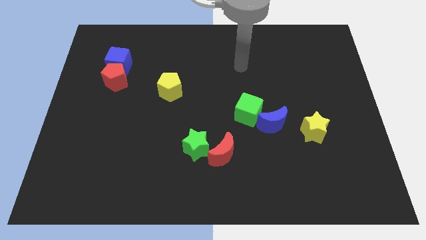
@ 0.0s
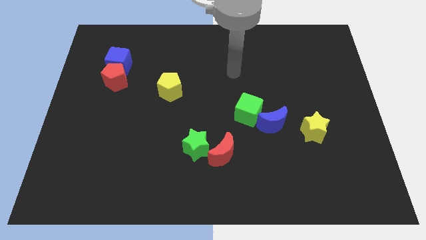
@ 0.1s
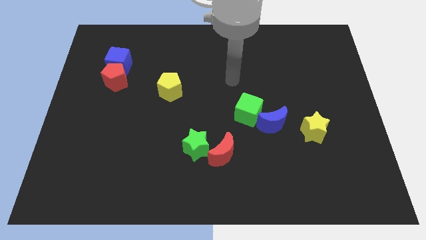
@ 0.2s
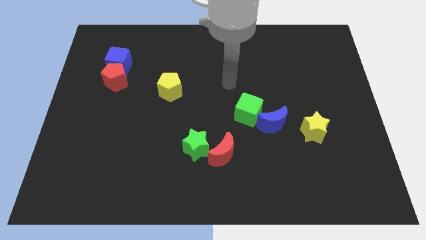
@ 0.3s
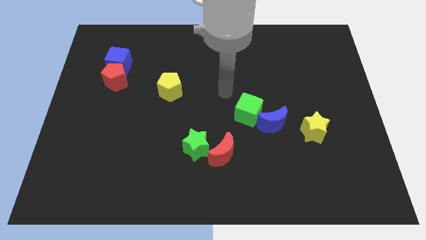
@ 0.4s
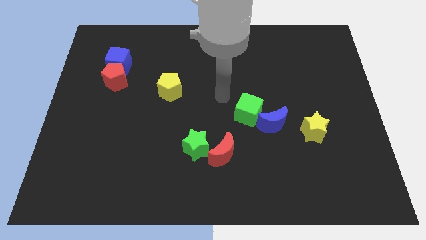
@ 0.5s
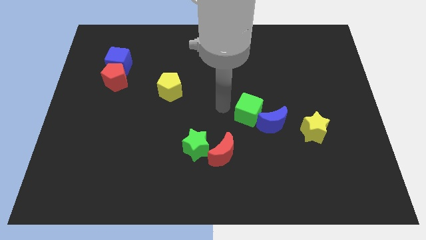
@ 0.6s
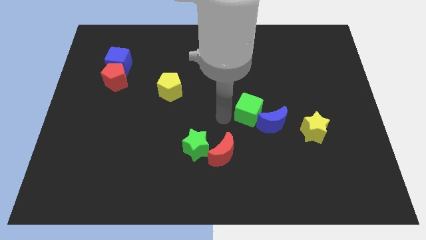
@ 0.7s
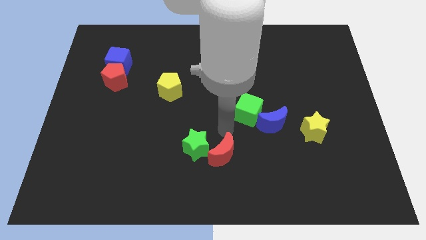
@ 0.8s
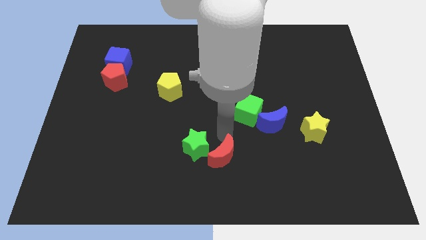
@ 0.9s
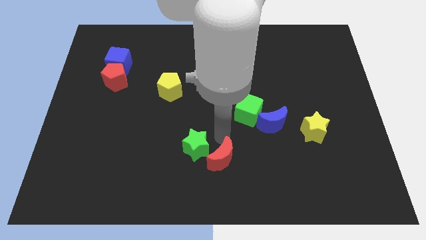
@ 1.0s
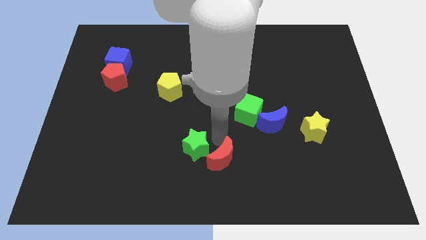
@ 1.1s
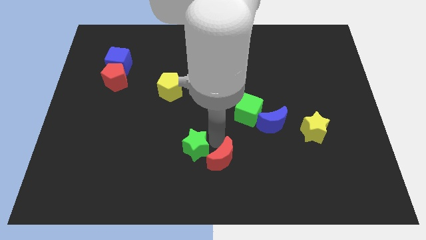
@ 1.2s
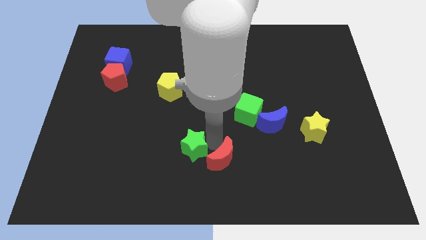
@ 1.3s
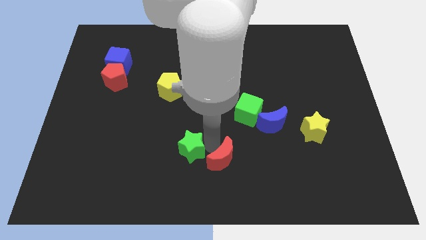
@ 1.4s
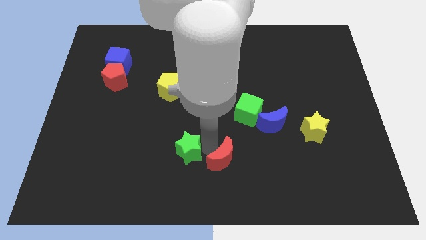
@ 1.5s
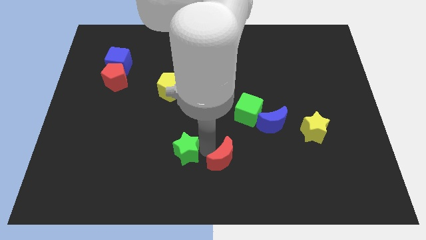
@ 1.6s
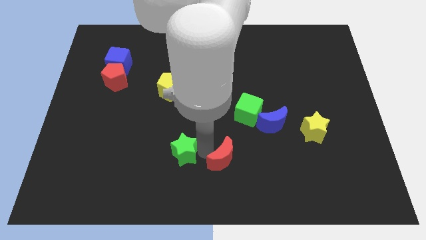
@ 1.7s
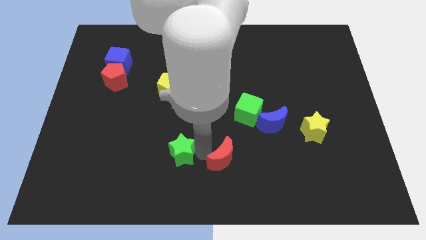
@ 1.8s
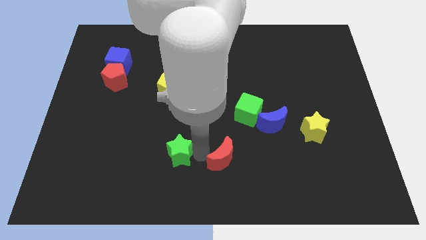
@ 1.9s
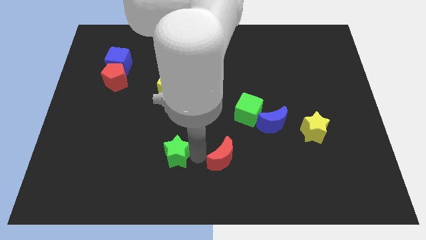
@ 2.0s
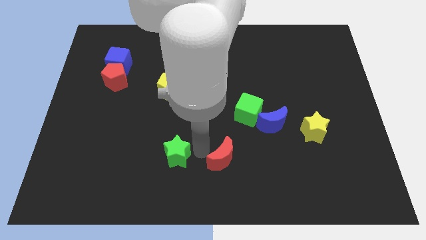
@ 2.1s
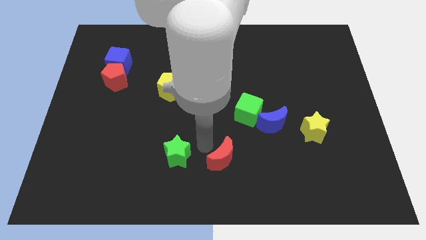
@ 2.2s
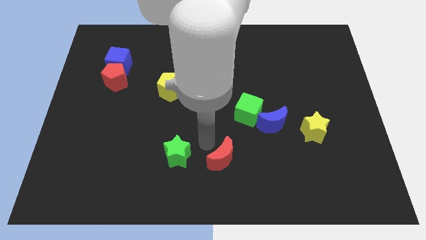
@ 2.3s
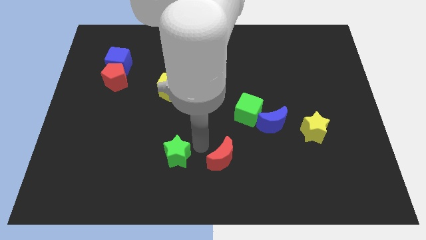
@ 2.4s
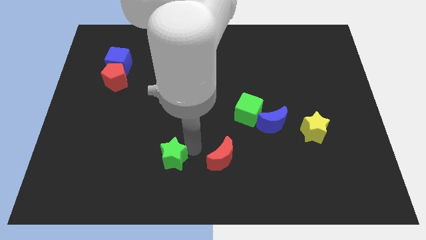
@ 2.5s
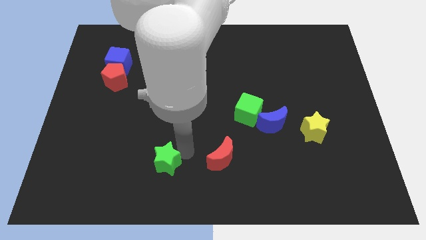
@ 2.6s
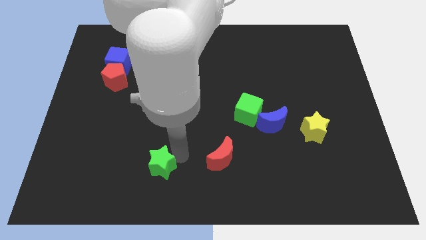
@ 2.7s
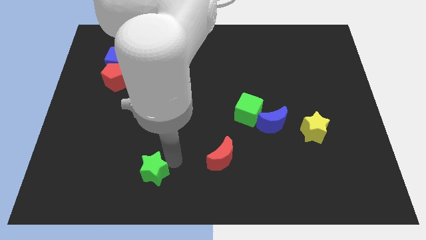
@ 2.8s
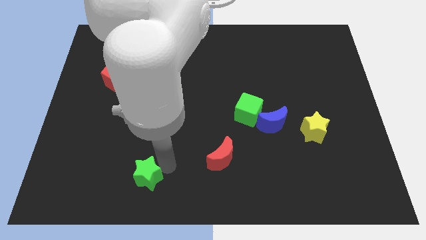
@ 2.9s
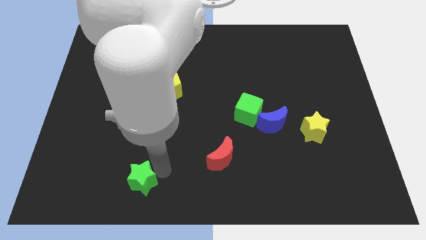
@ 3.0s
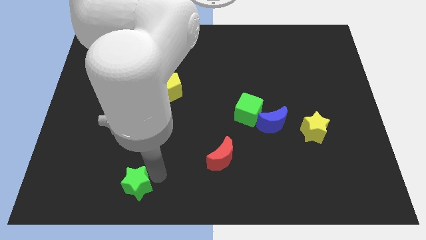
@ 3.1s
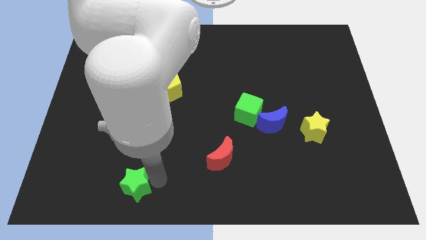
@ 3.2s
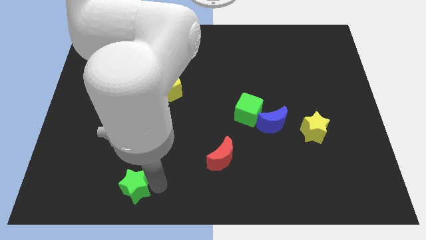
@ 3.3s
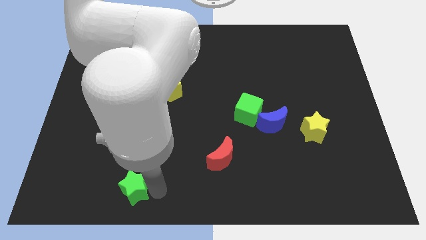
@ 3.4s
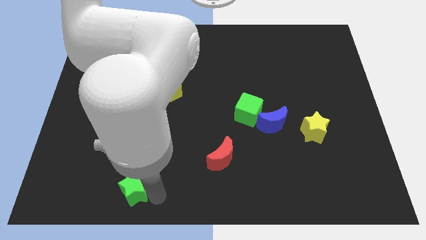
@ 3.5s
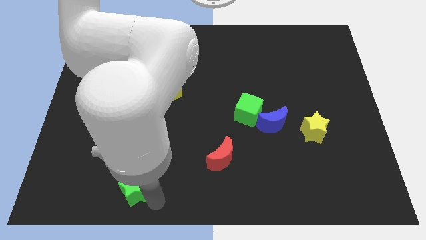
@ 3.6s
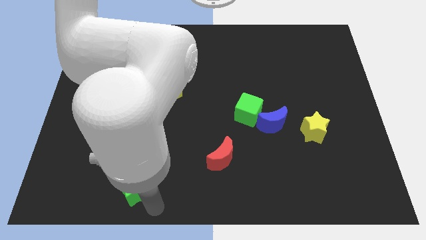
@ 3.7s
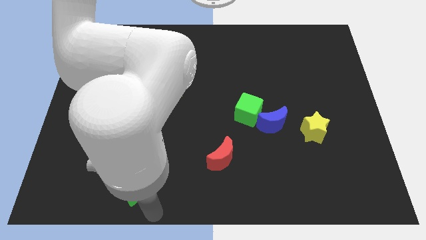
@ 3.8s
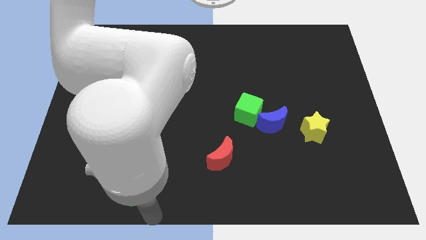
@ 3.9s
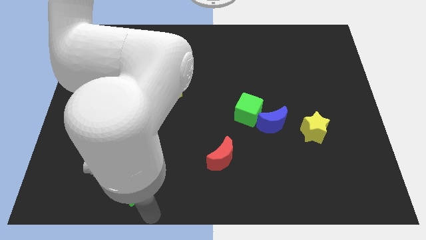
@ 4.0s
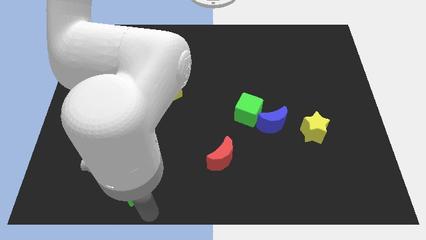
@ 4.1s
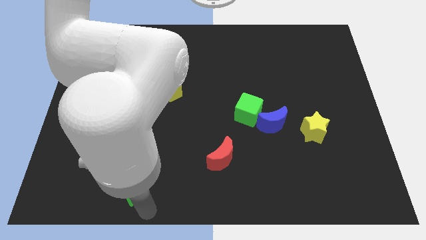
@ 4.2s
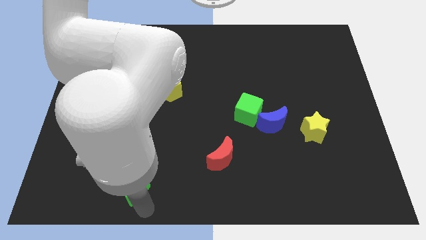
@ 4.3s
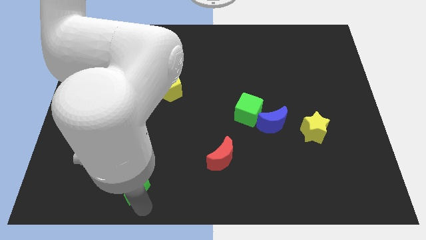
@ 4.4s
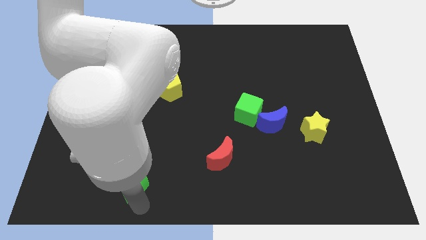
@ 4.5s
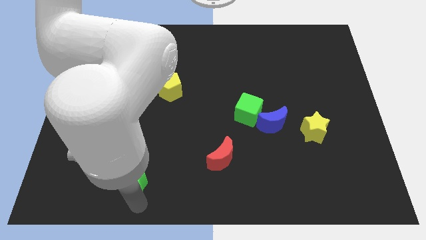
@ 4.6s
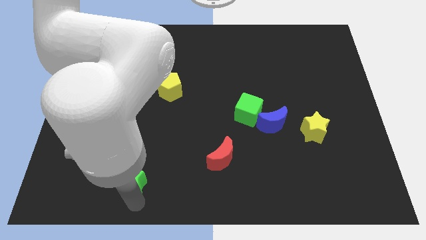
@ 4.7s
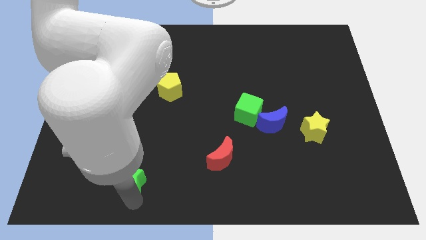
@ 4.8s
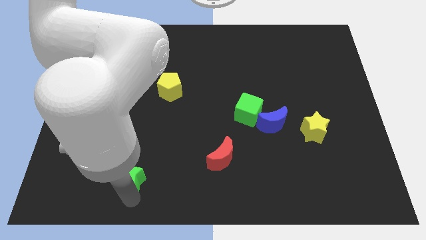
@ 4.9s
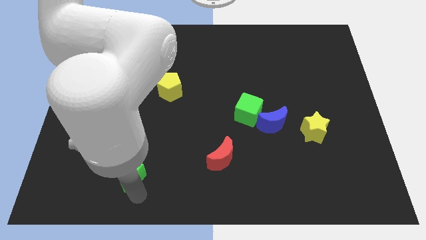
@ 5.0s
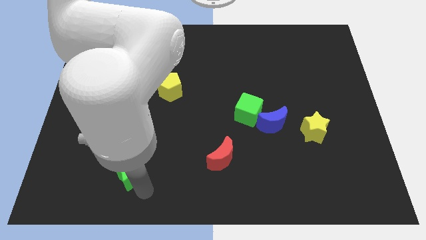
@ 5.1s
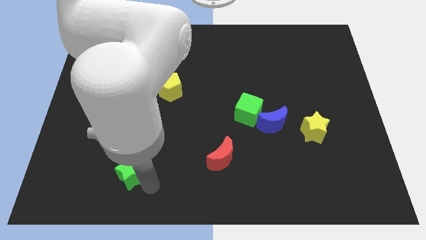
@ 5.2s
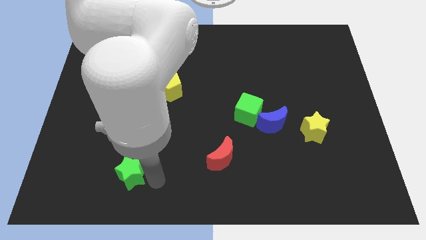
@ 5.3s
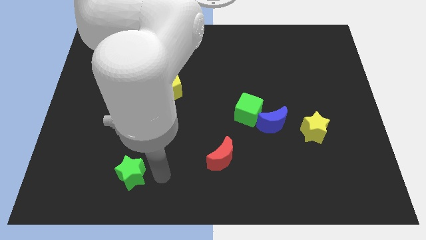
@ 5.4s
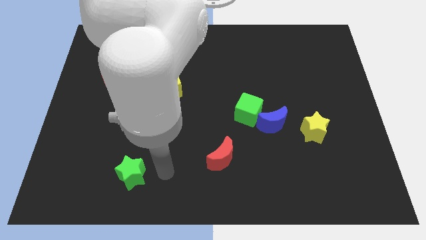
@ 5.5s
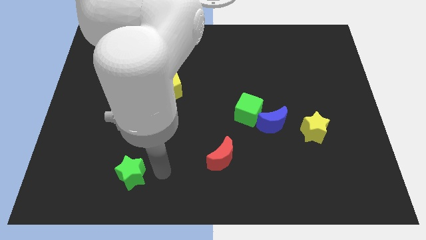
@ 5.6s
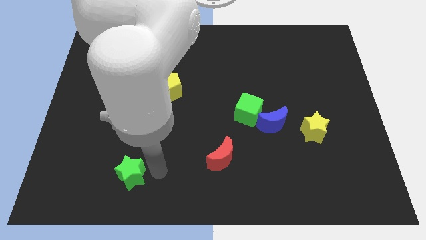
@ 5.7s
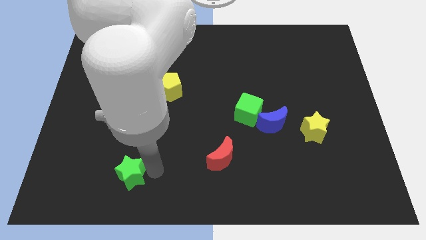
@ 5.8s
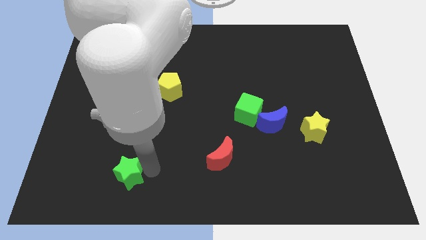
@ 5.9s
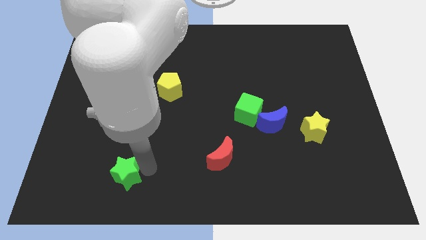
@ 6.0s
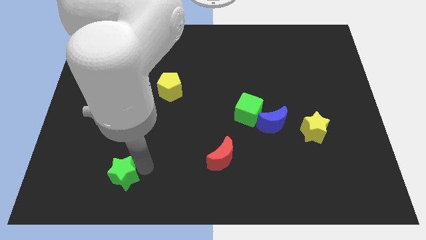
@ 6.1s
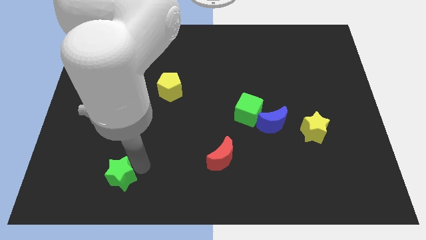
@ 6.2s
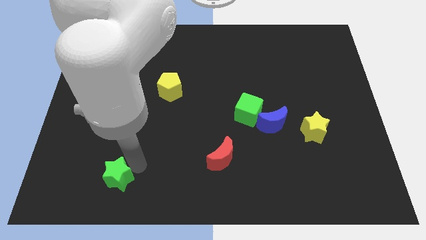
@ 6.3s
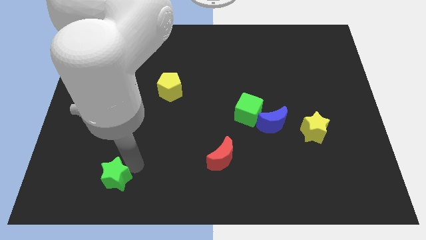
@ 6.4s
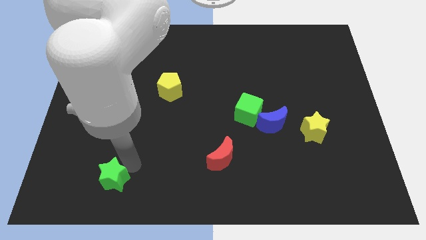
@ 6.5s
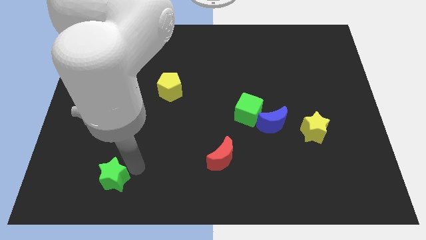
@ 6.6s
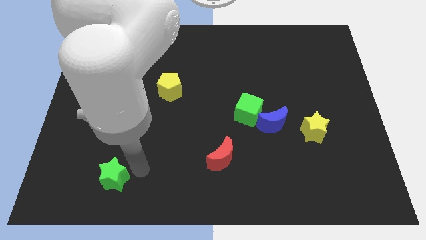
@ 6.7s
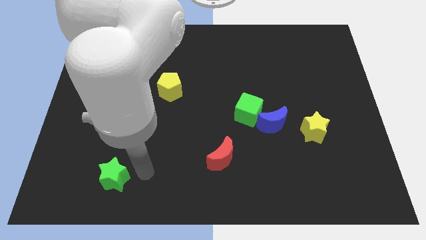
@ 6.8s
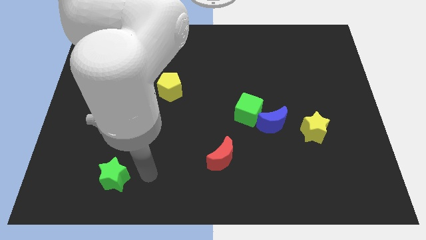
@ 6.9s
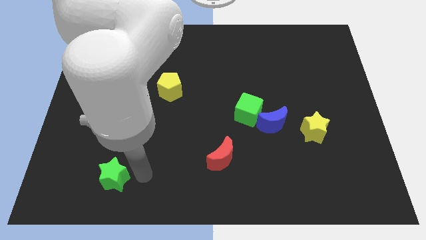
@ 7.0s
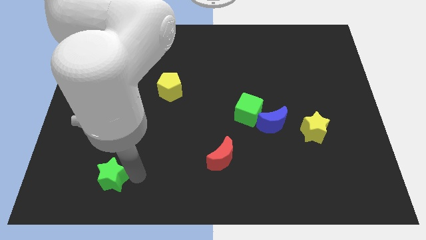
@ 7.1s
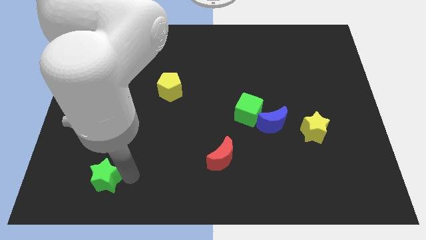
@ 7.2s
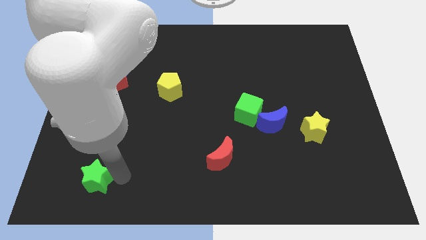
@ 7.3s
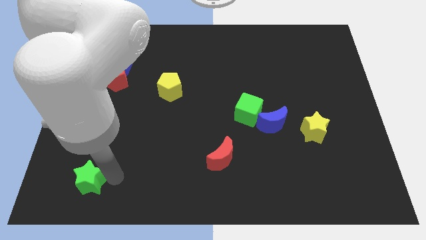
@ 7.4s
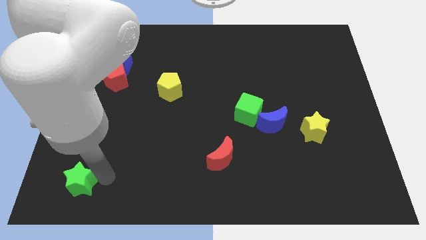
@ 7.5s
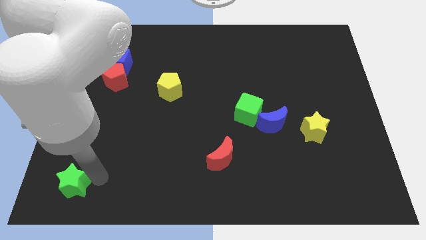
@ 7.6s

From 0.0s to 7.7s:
move the green star to the bottom left
